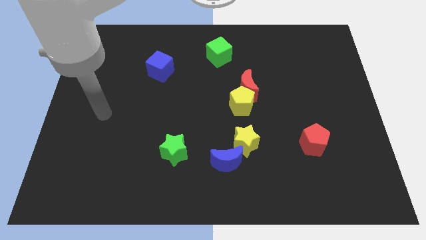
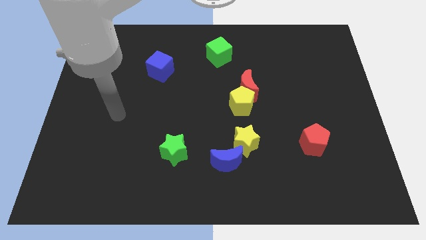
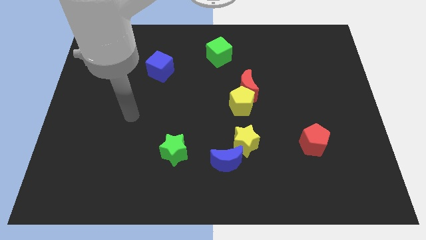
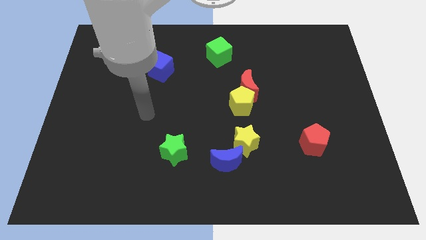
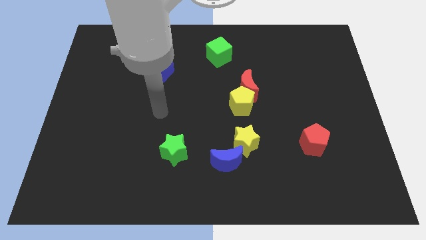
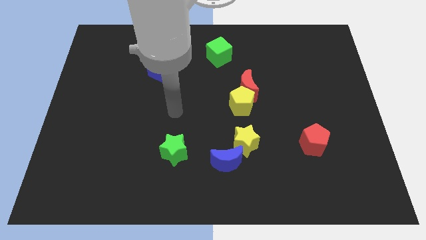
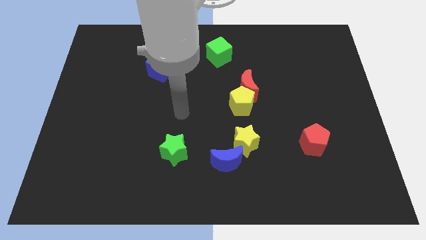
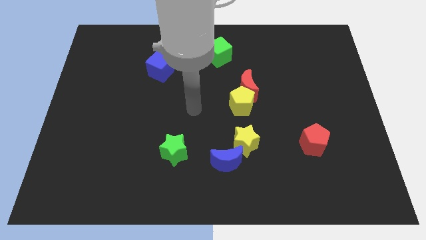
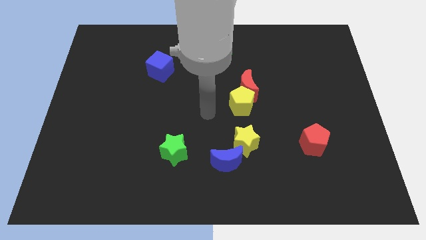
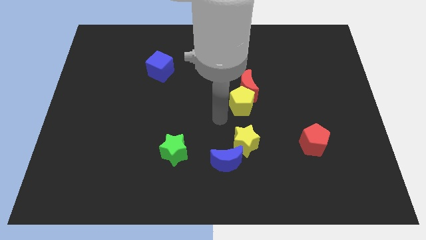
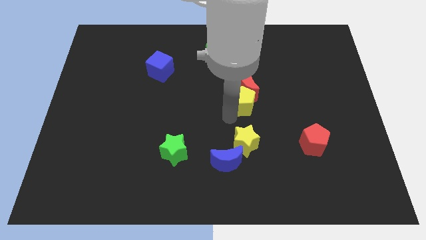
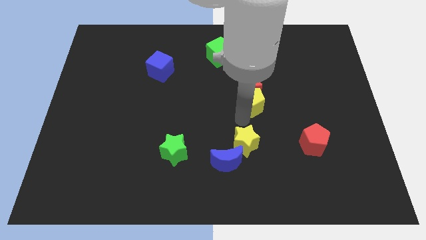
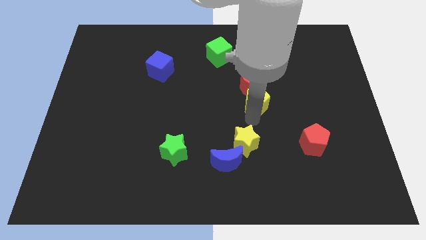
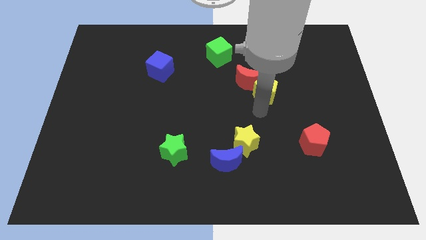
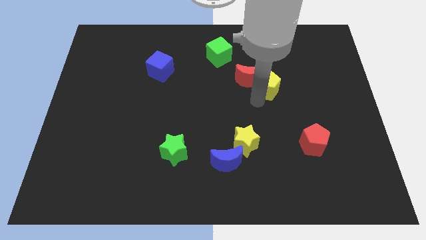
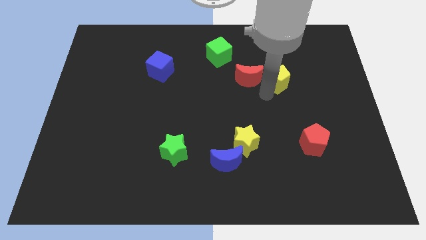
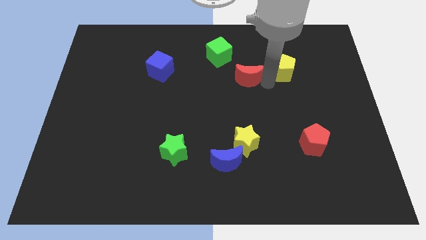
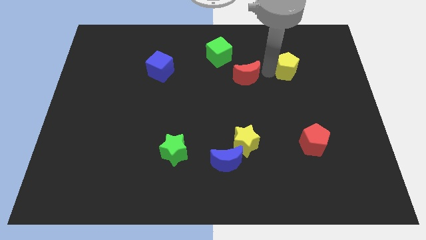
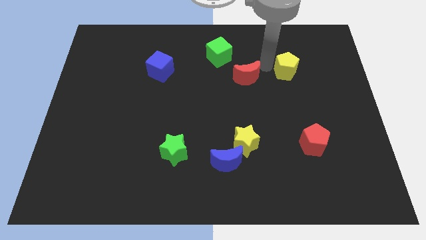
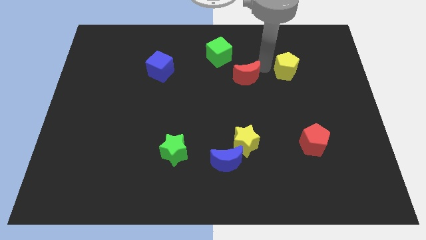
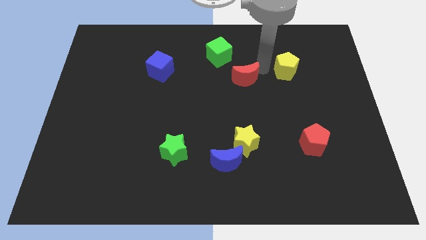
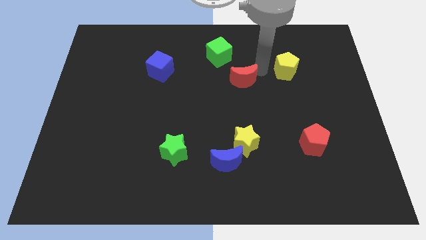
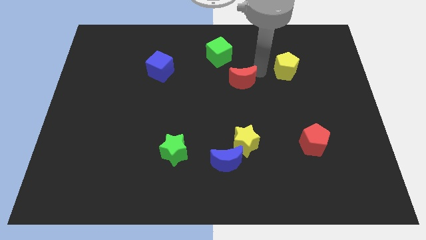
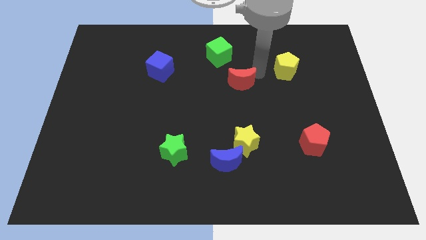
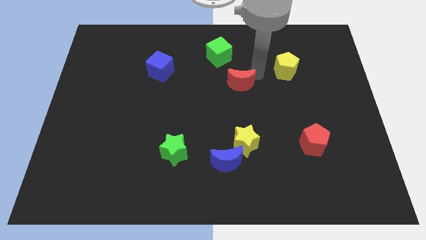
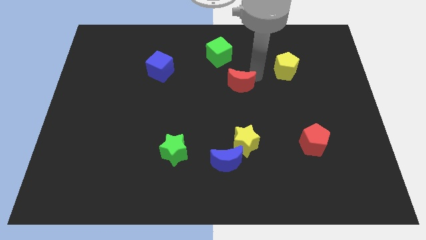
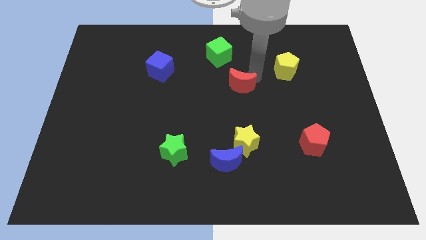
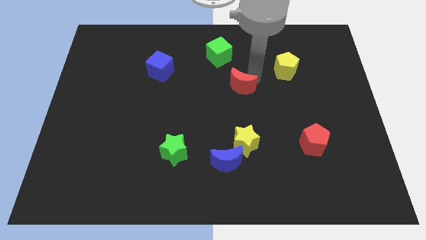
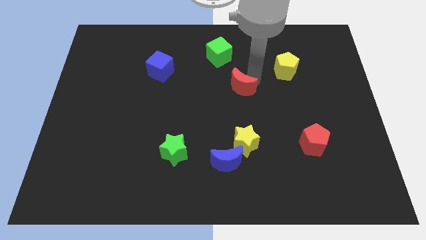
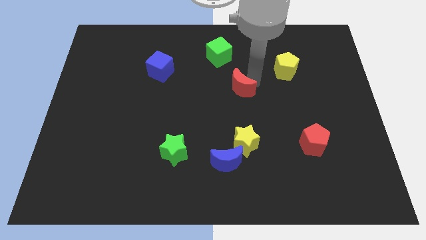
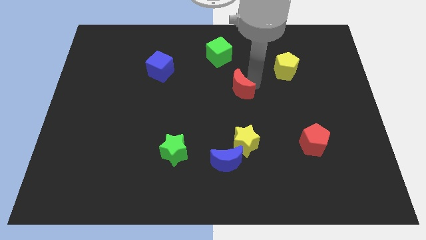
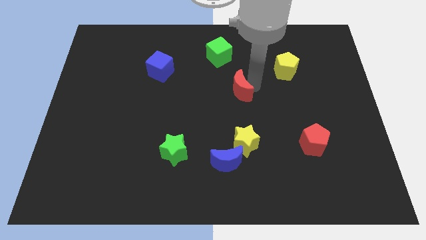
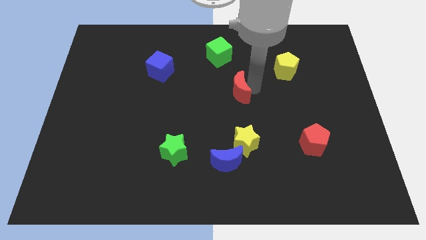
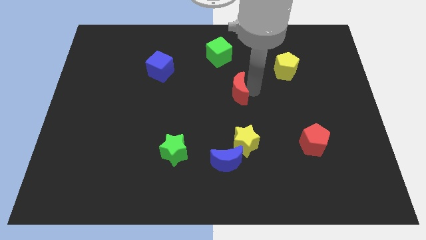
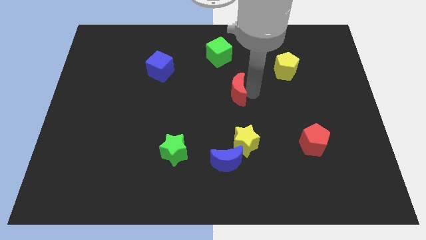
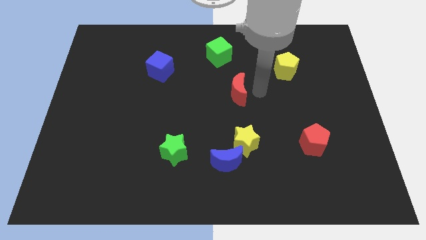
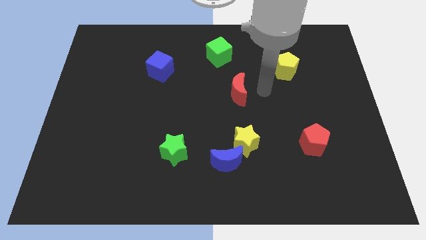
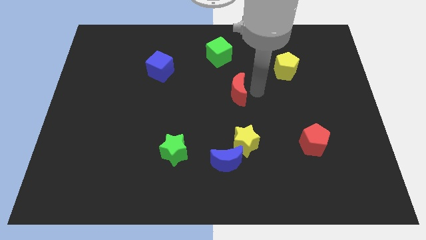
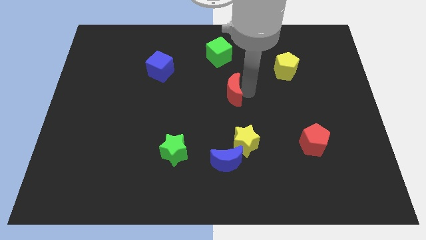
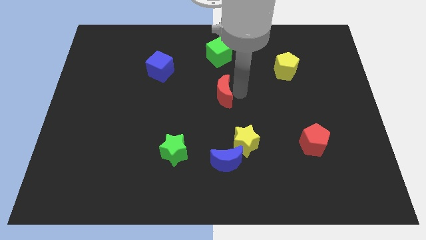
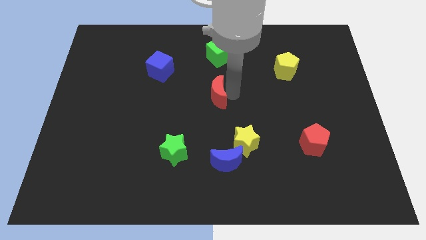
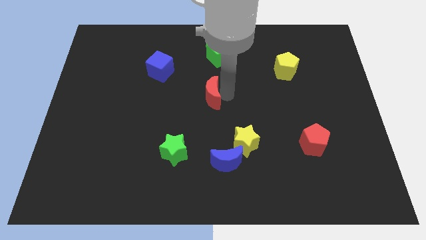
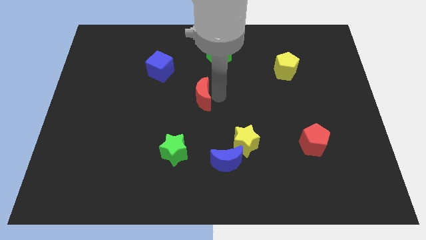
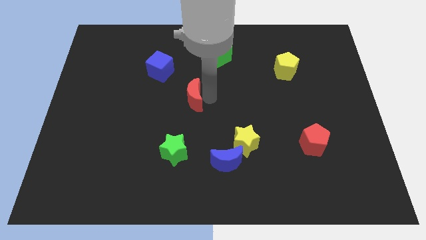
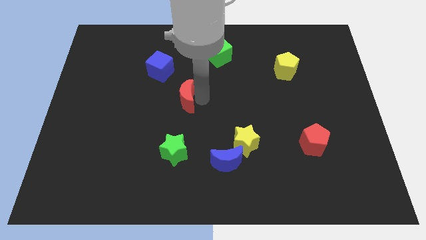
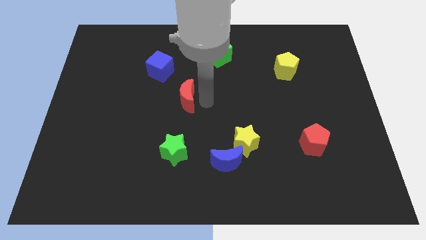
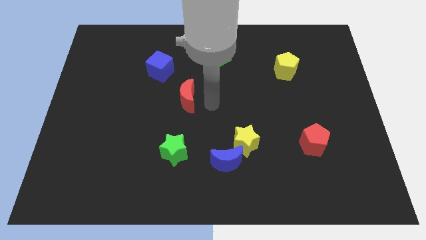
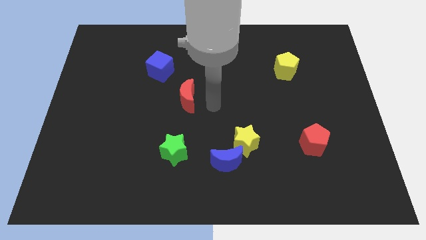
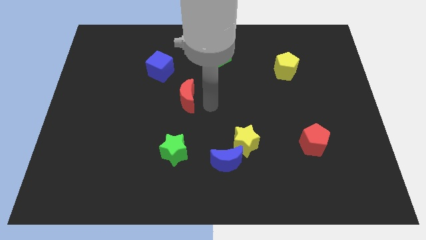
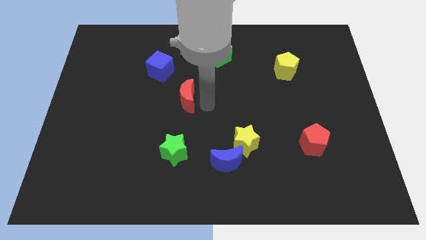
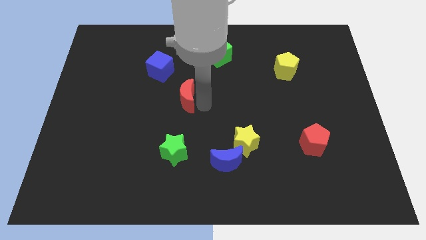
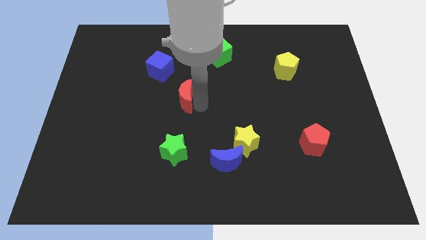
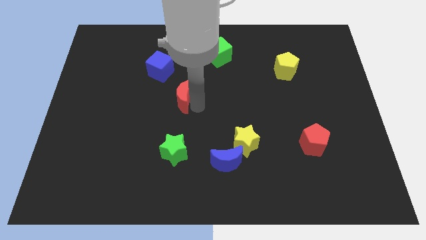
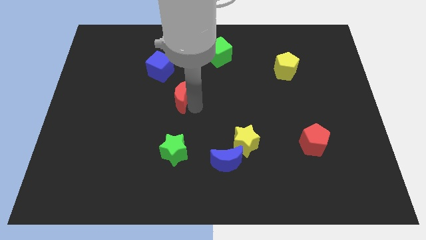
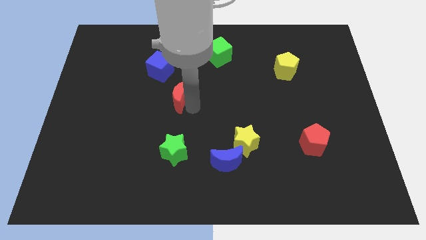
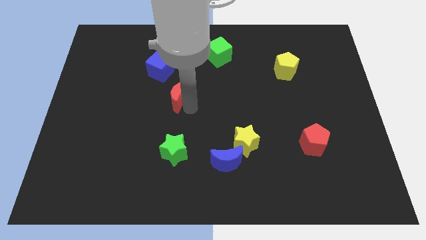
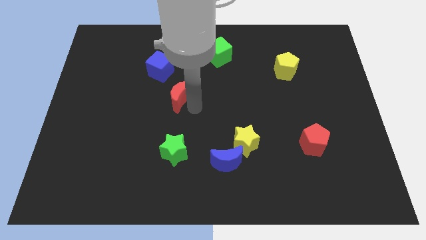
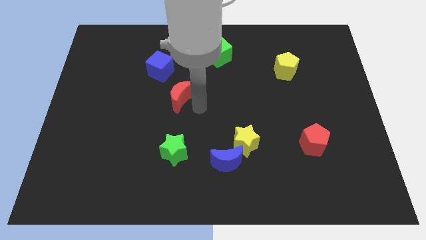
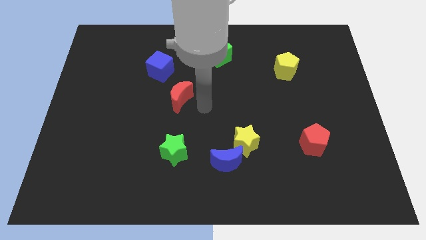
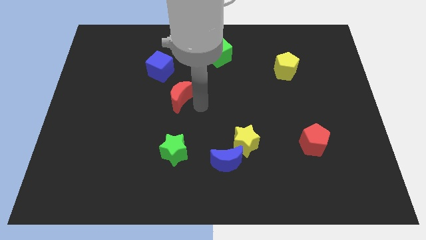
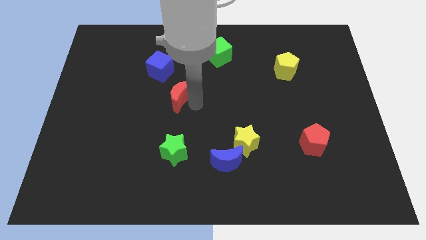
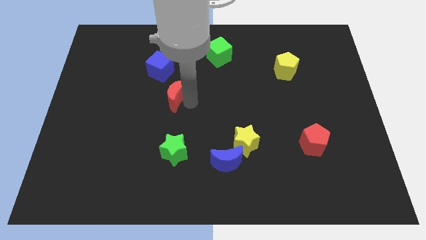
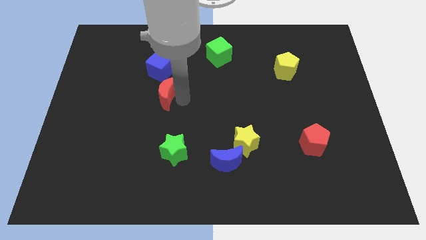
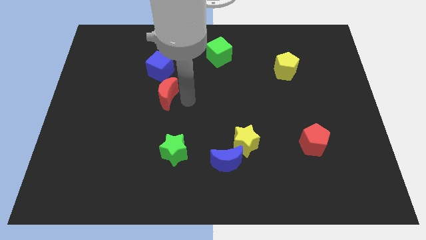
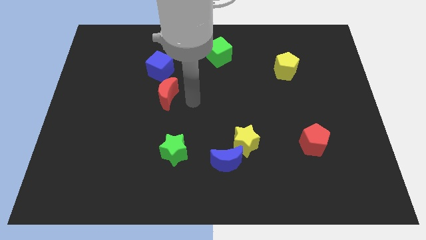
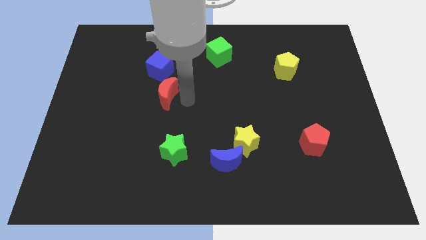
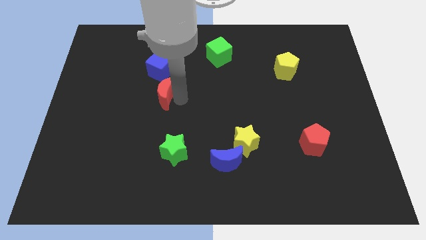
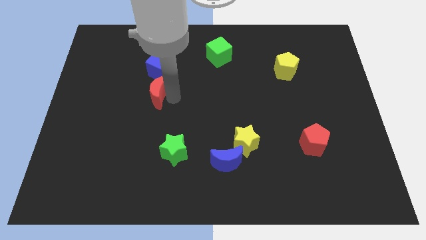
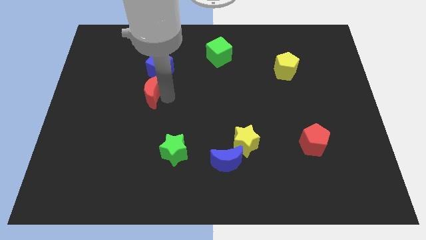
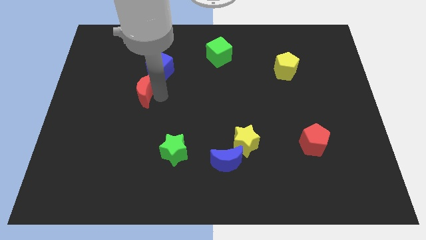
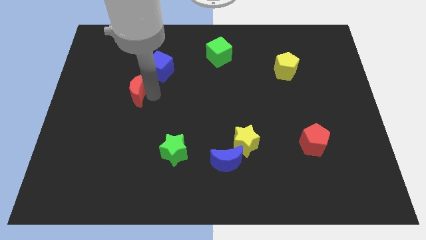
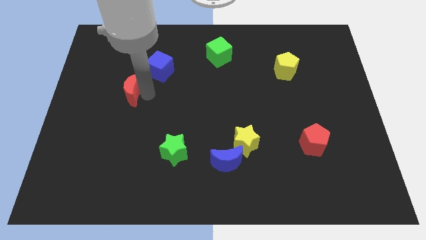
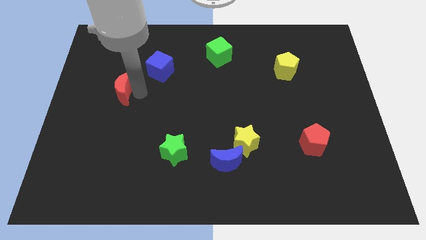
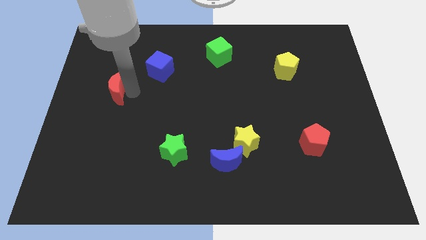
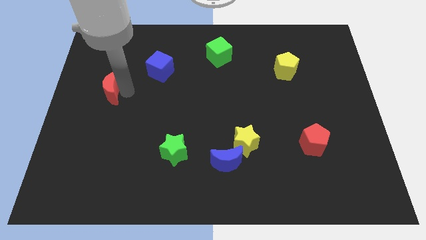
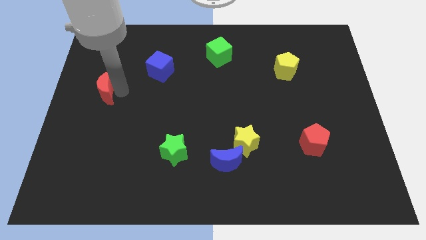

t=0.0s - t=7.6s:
put the red moon to the left side

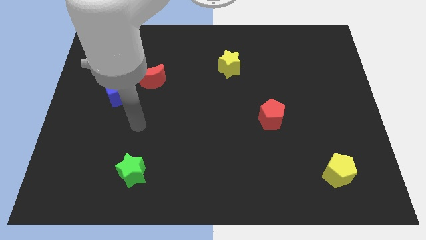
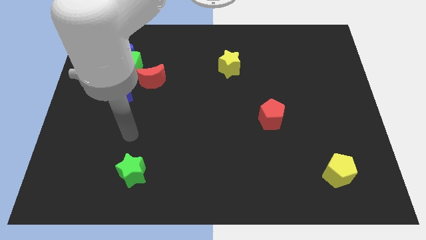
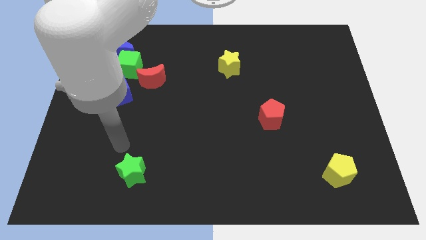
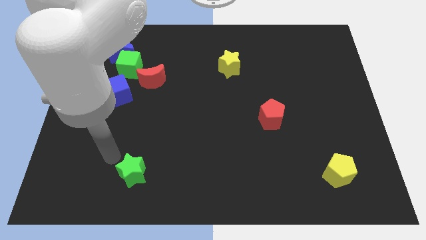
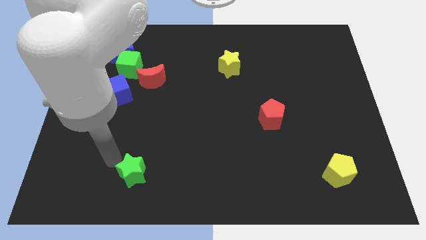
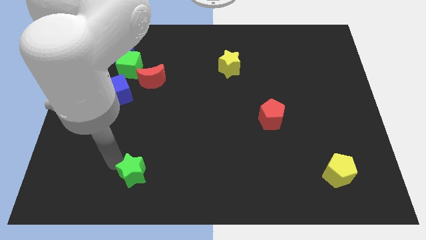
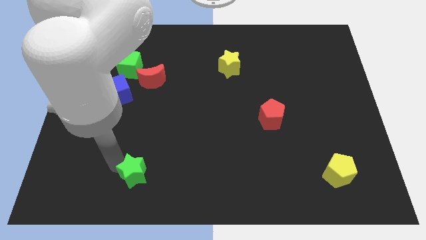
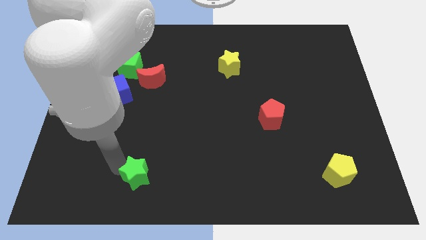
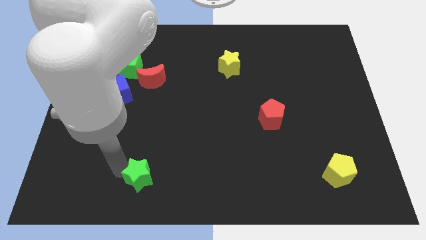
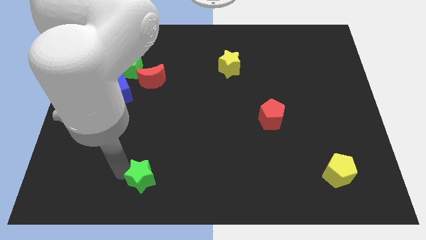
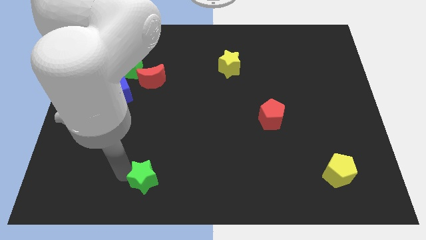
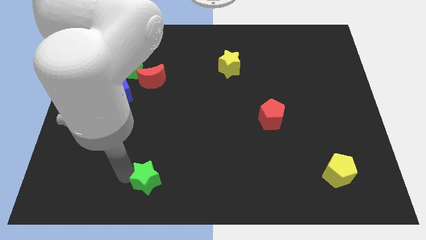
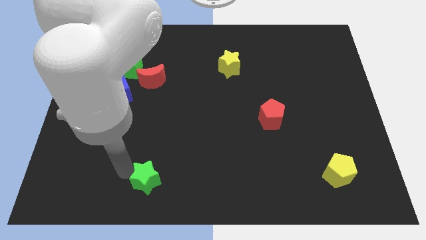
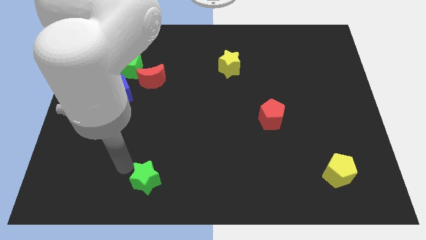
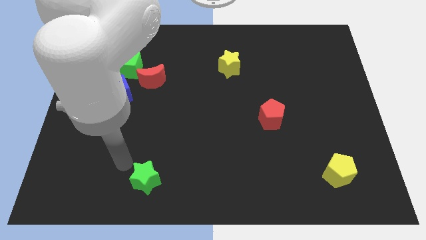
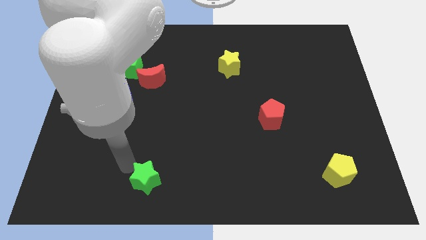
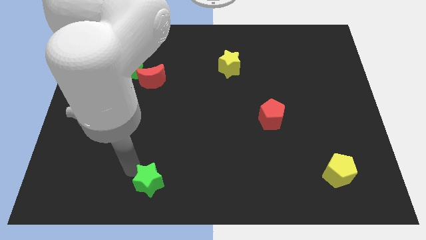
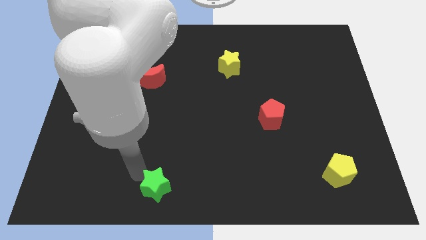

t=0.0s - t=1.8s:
slide the green star to the bottom side
